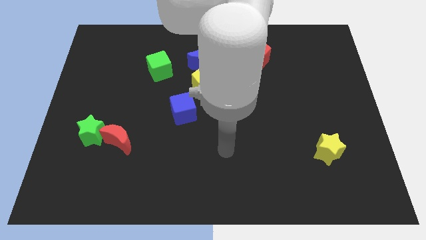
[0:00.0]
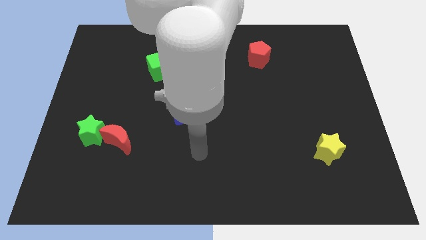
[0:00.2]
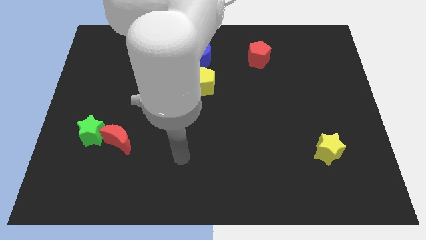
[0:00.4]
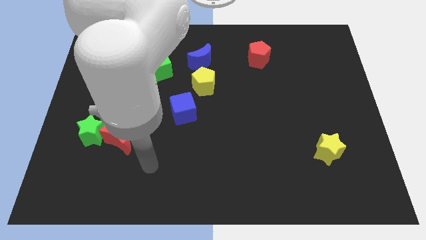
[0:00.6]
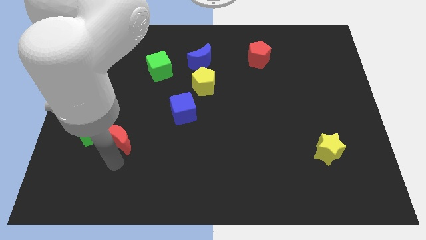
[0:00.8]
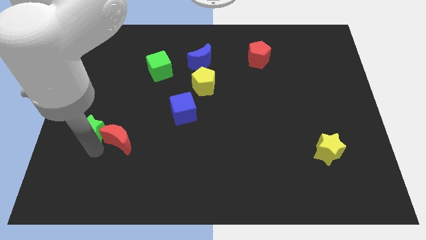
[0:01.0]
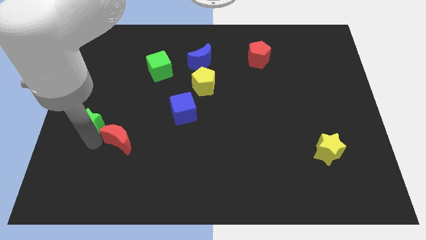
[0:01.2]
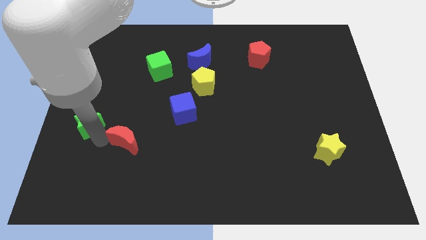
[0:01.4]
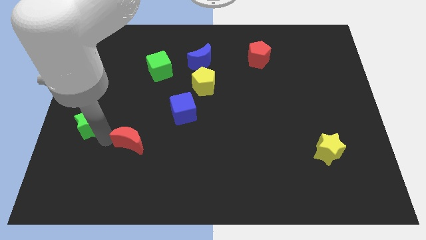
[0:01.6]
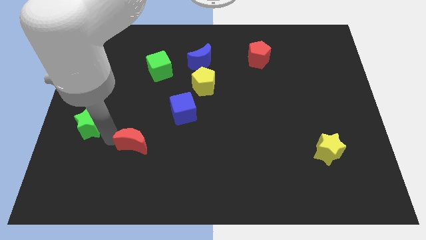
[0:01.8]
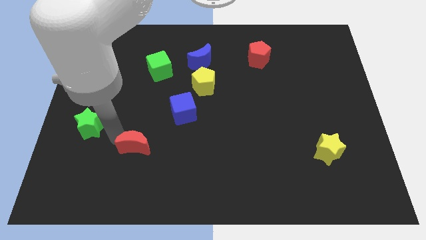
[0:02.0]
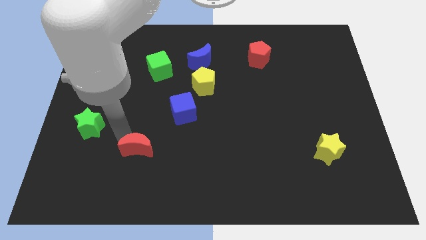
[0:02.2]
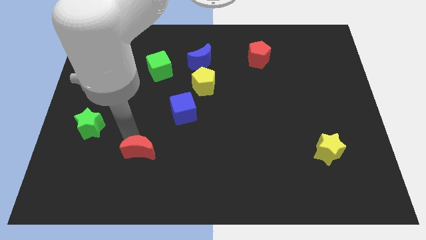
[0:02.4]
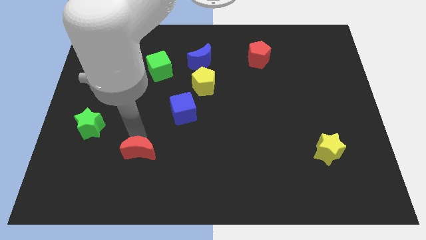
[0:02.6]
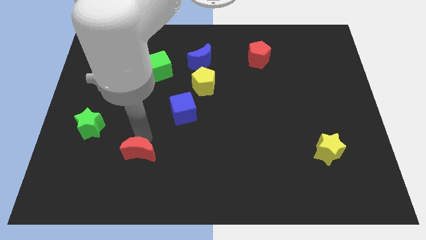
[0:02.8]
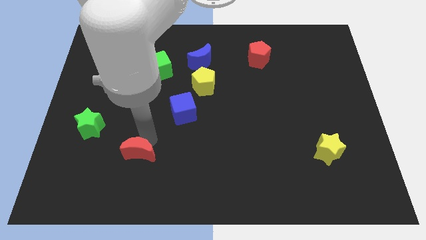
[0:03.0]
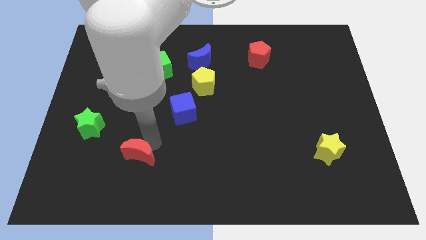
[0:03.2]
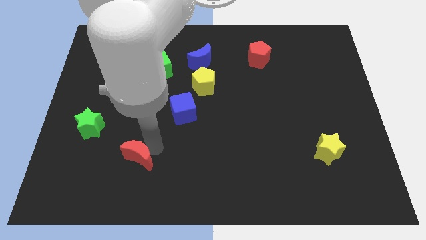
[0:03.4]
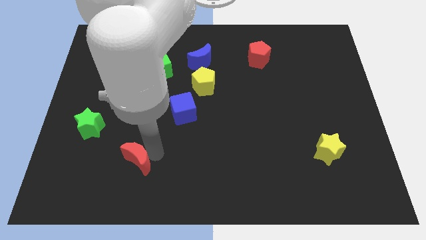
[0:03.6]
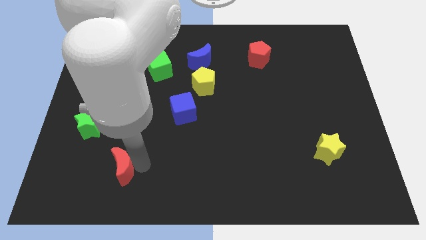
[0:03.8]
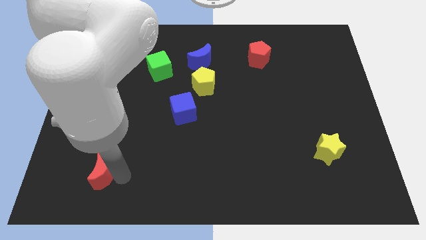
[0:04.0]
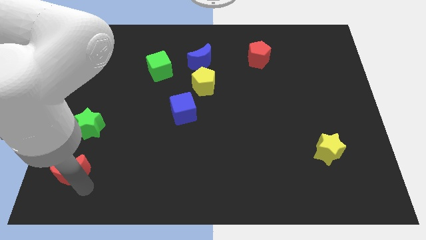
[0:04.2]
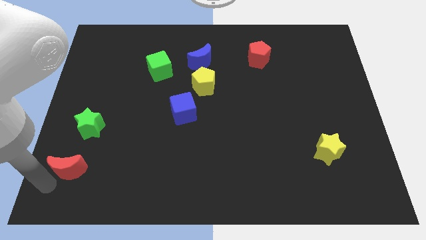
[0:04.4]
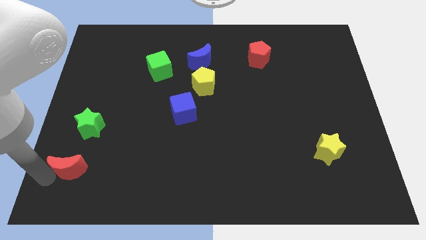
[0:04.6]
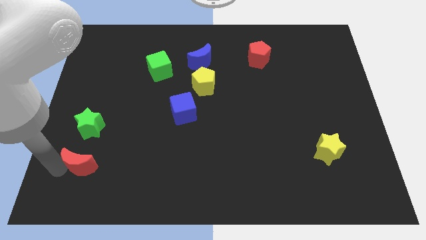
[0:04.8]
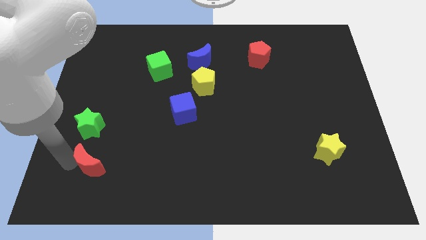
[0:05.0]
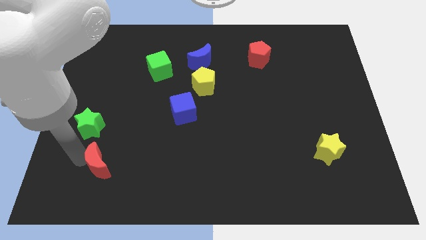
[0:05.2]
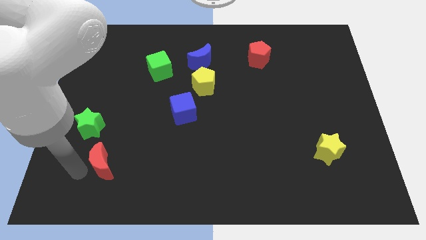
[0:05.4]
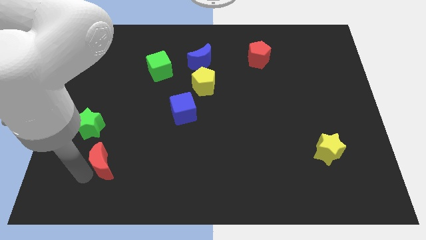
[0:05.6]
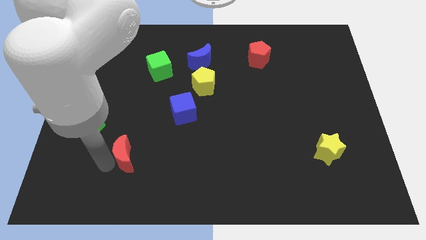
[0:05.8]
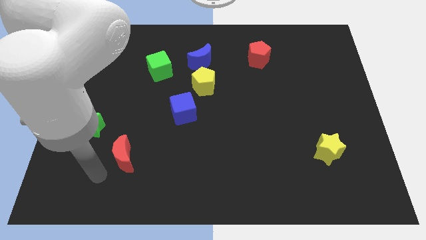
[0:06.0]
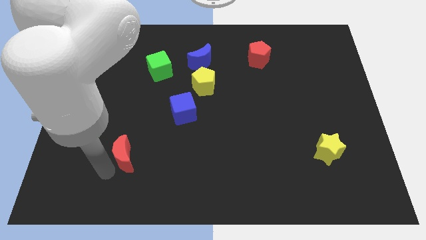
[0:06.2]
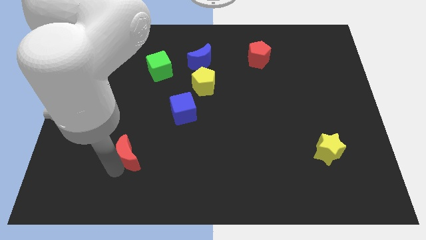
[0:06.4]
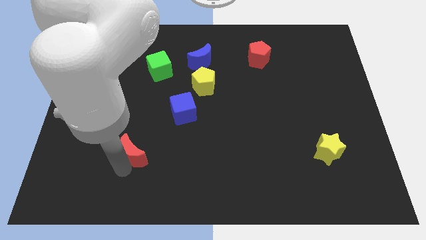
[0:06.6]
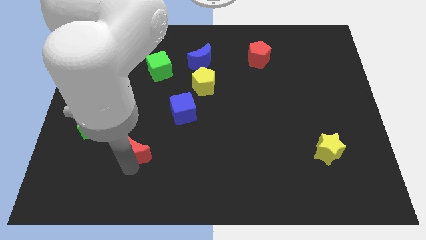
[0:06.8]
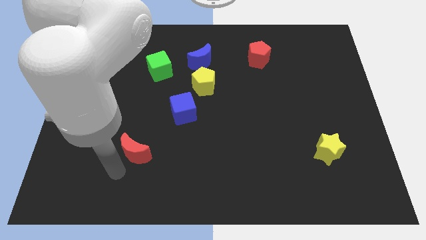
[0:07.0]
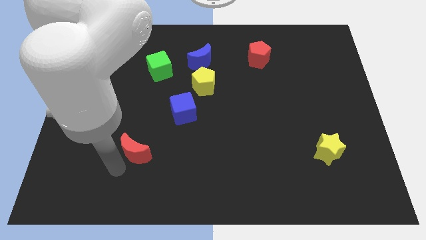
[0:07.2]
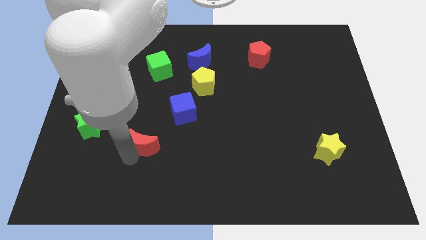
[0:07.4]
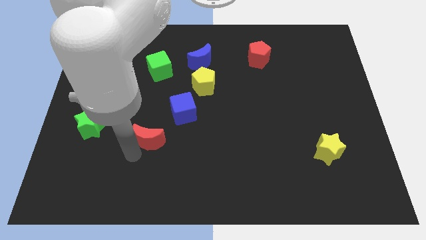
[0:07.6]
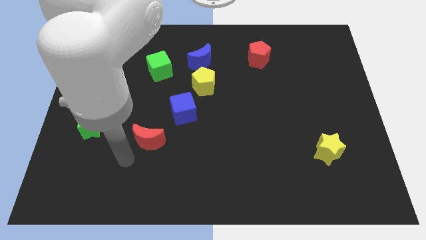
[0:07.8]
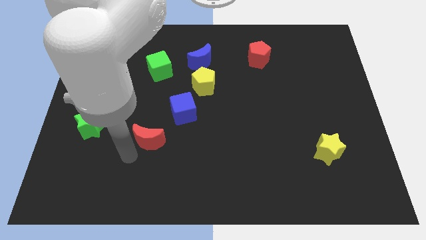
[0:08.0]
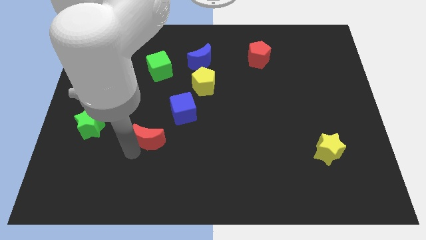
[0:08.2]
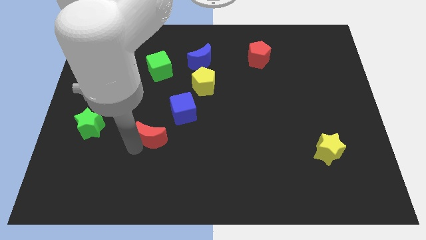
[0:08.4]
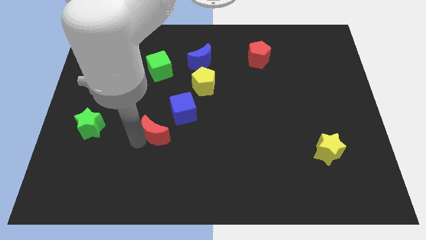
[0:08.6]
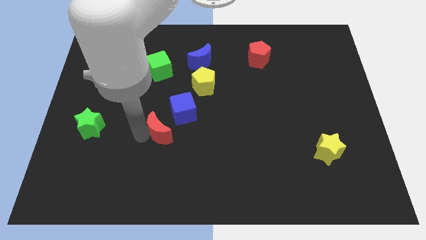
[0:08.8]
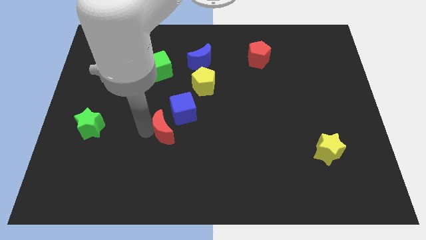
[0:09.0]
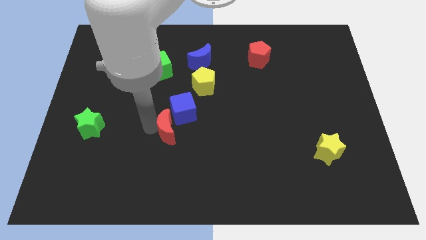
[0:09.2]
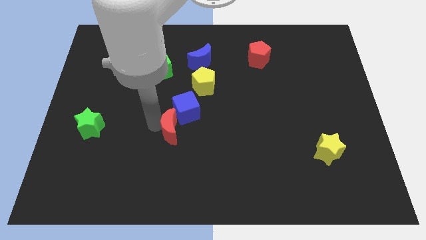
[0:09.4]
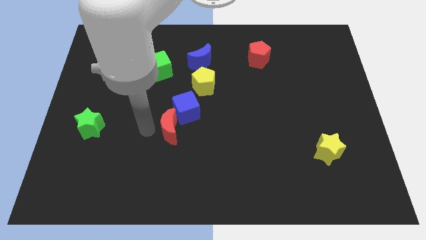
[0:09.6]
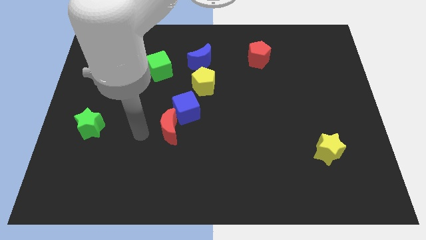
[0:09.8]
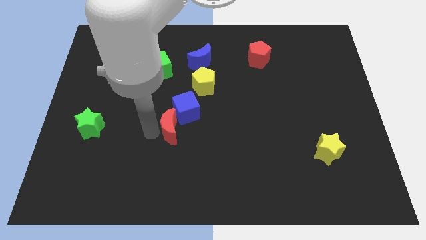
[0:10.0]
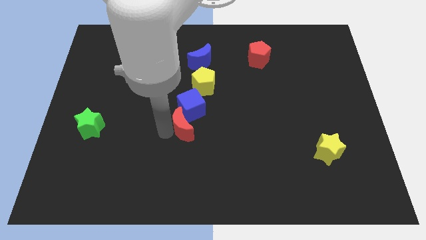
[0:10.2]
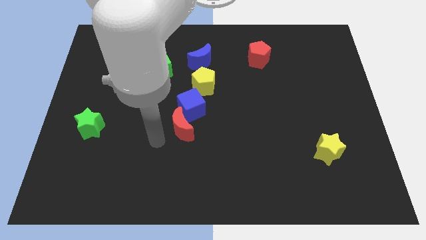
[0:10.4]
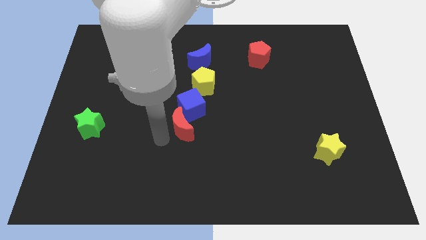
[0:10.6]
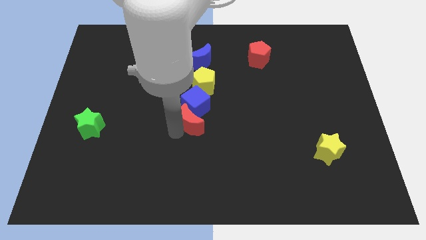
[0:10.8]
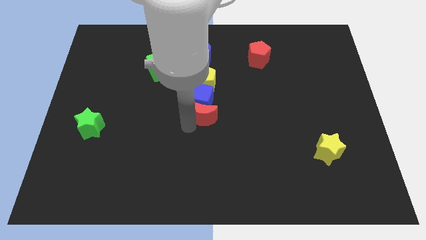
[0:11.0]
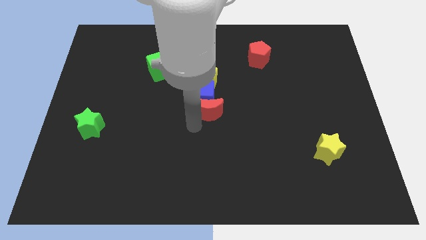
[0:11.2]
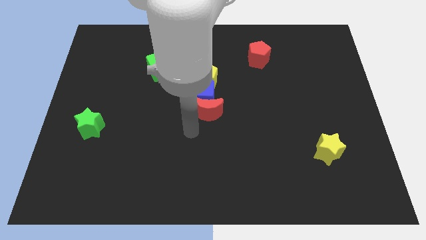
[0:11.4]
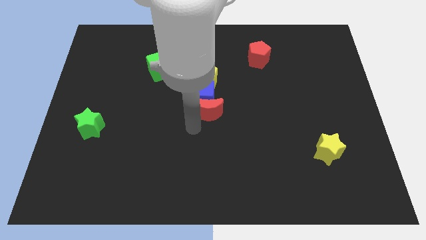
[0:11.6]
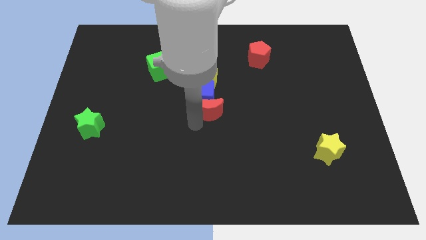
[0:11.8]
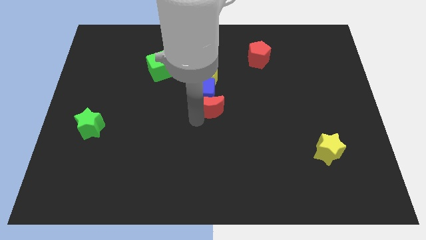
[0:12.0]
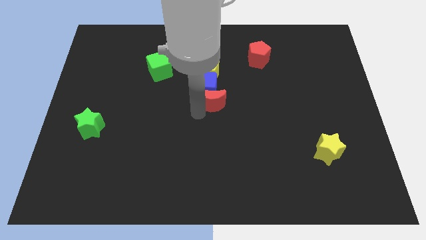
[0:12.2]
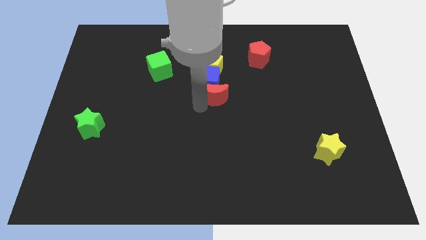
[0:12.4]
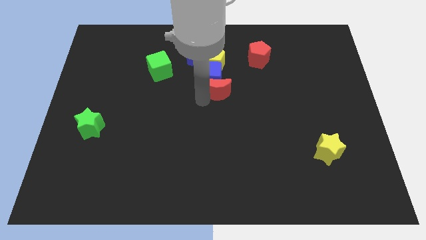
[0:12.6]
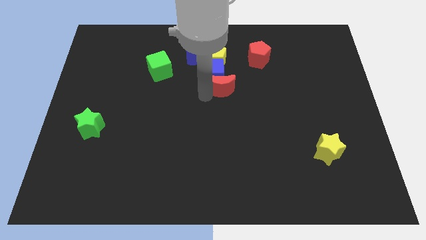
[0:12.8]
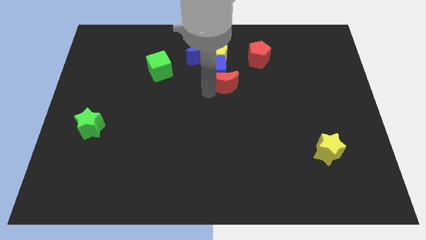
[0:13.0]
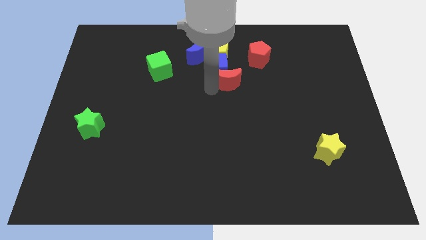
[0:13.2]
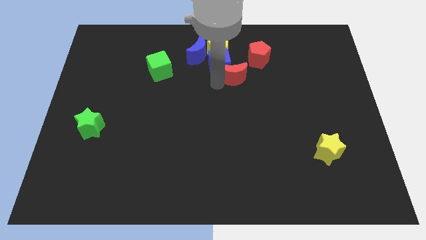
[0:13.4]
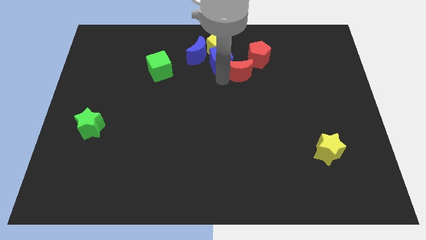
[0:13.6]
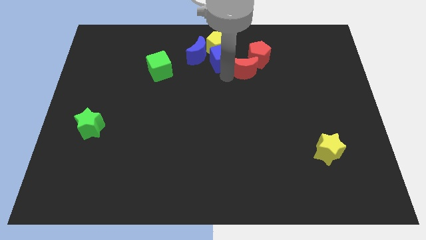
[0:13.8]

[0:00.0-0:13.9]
put the red moon towards the red pentagon
